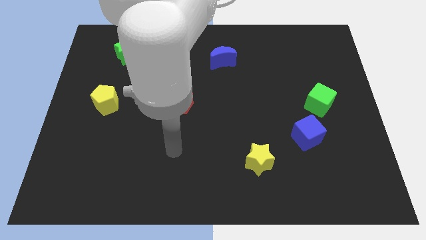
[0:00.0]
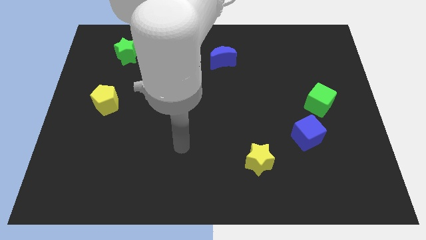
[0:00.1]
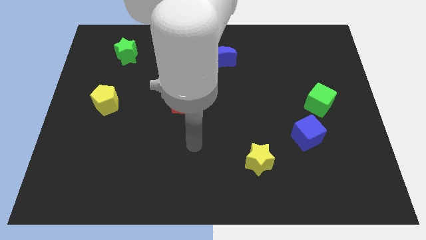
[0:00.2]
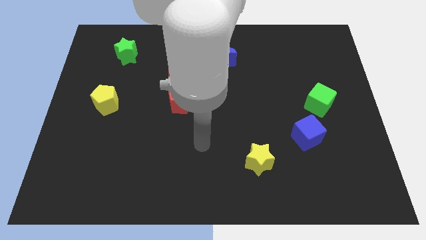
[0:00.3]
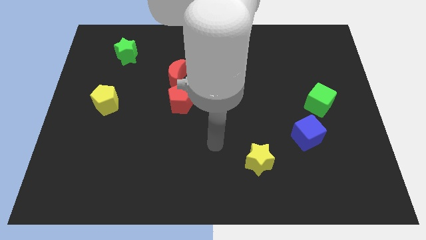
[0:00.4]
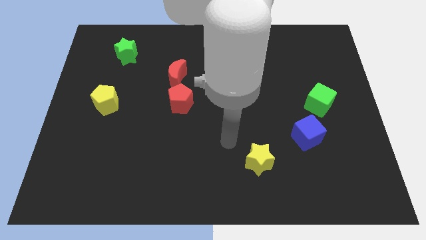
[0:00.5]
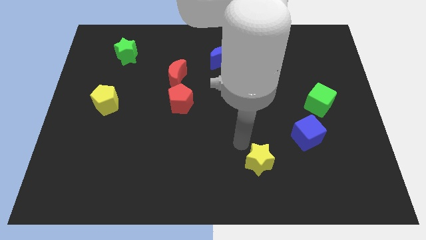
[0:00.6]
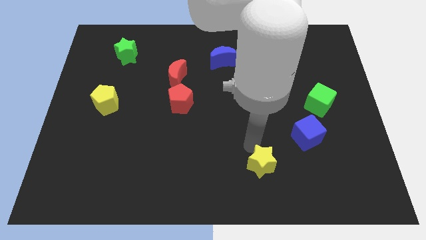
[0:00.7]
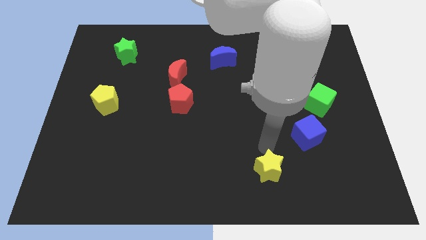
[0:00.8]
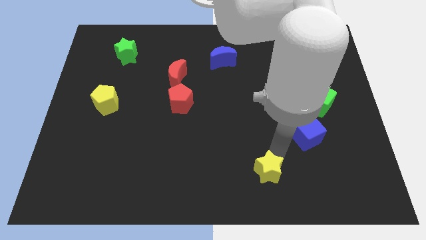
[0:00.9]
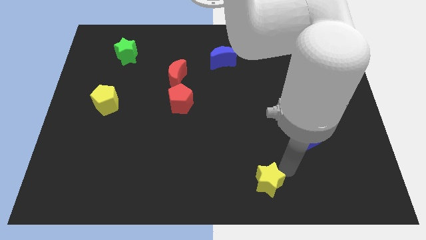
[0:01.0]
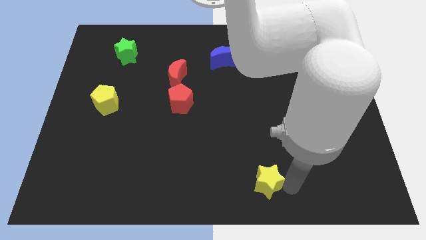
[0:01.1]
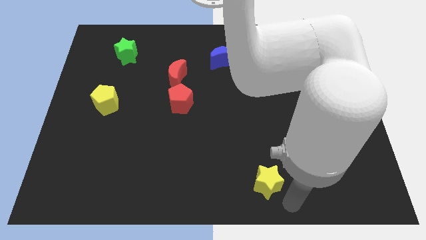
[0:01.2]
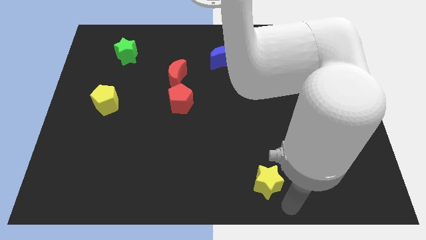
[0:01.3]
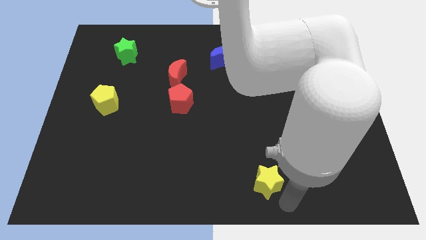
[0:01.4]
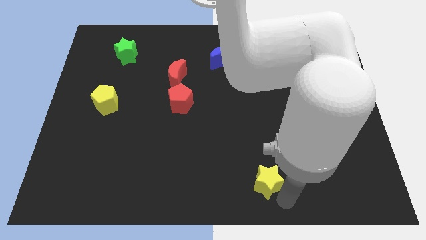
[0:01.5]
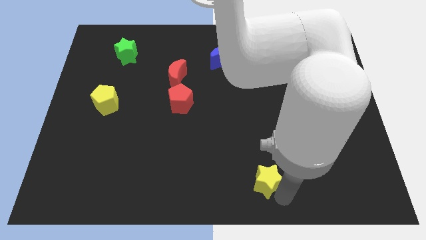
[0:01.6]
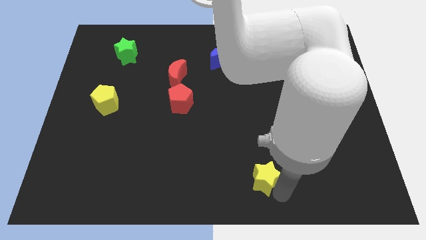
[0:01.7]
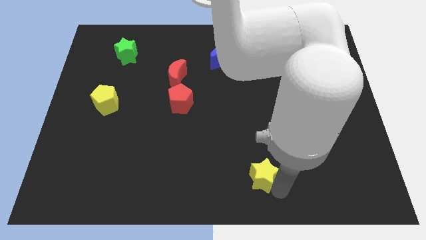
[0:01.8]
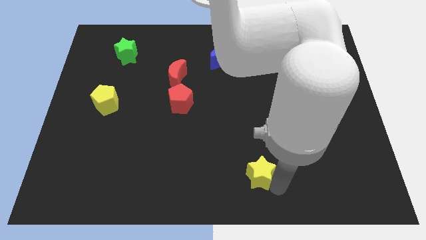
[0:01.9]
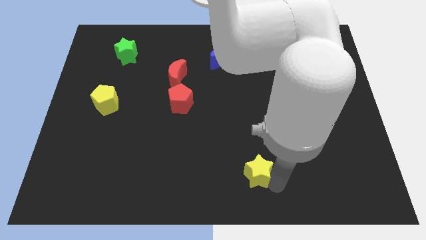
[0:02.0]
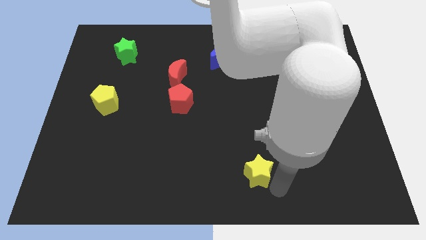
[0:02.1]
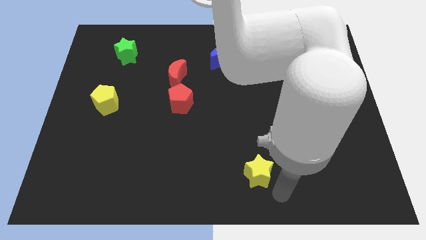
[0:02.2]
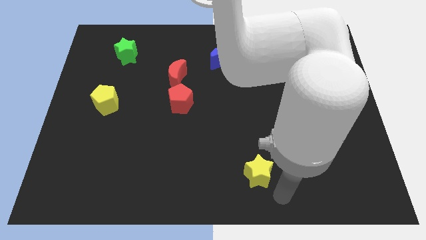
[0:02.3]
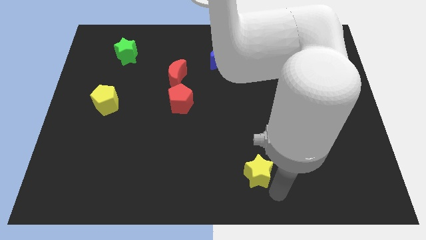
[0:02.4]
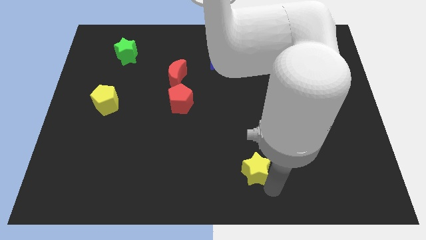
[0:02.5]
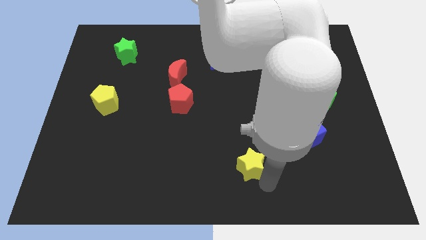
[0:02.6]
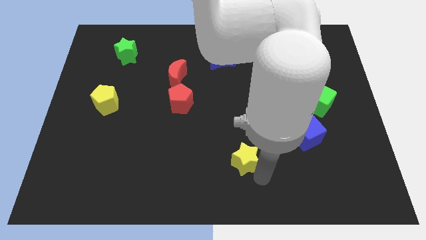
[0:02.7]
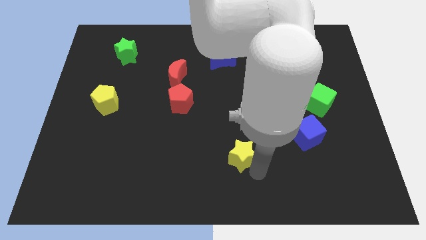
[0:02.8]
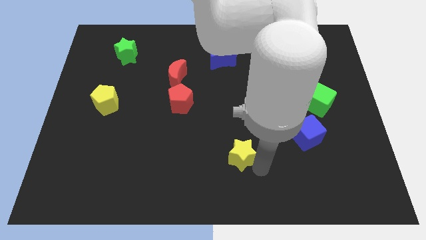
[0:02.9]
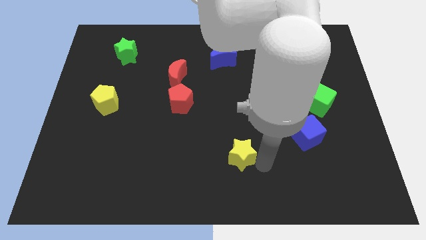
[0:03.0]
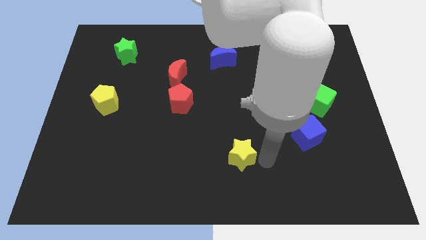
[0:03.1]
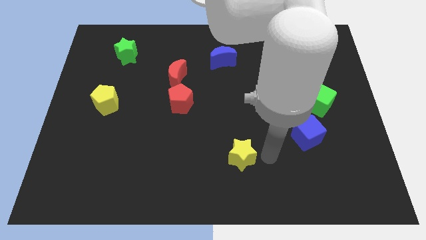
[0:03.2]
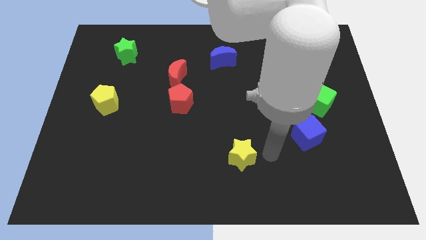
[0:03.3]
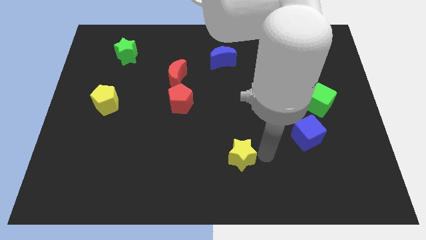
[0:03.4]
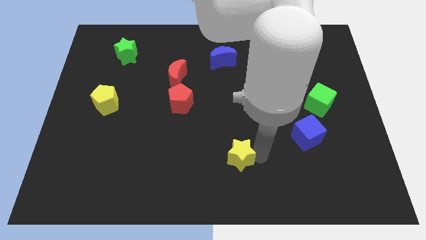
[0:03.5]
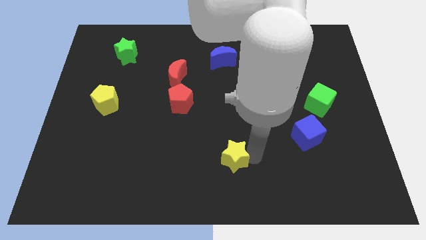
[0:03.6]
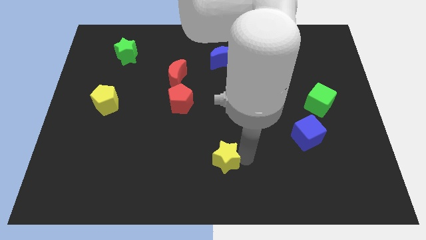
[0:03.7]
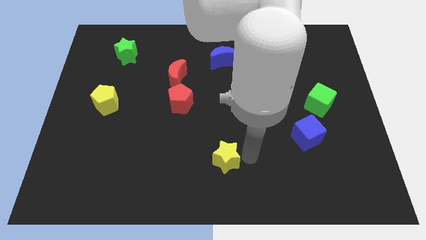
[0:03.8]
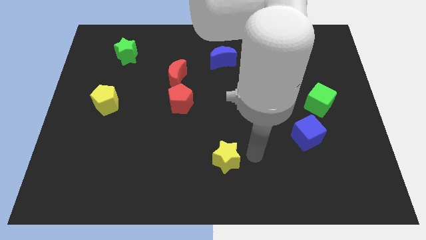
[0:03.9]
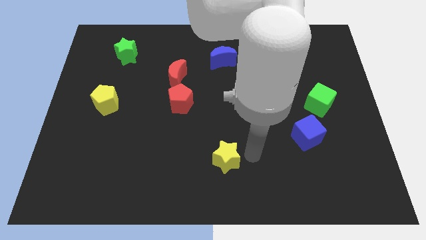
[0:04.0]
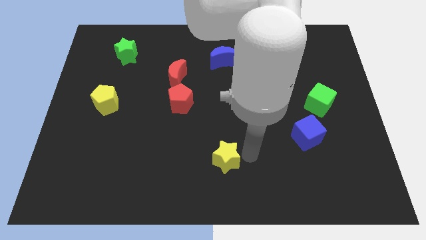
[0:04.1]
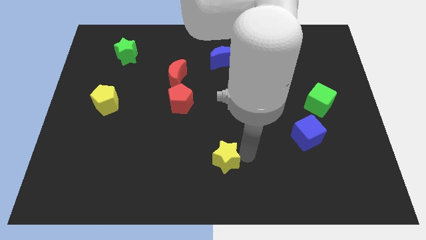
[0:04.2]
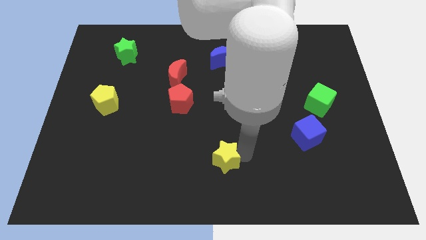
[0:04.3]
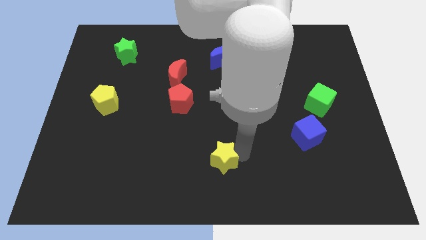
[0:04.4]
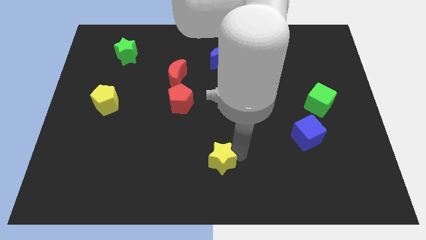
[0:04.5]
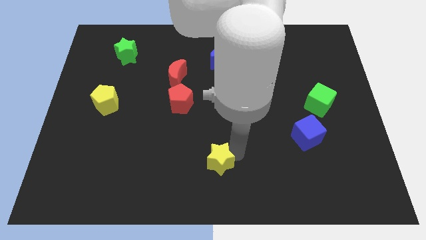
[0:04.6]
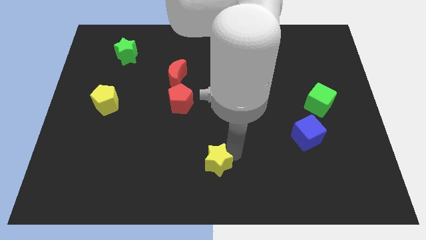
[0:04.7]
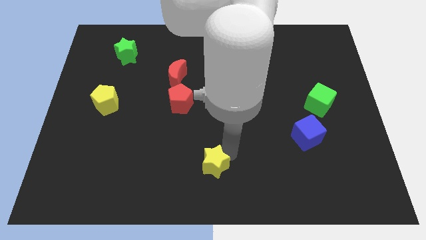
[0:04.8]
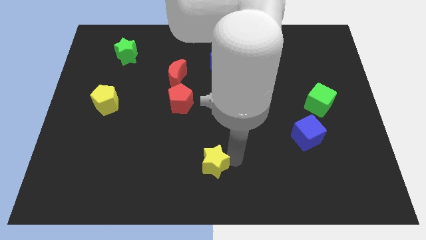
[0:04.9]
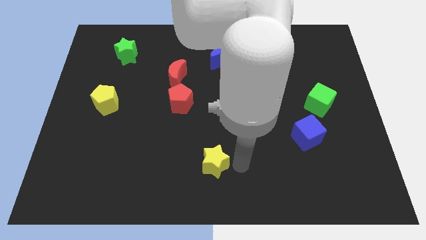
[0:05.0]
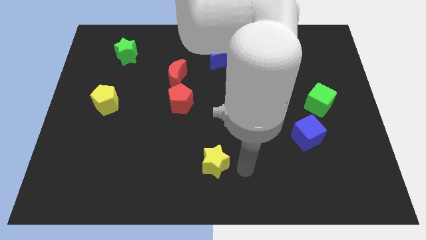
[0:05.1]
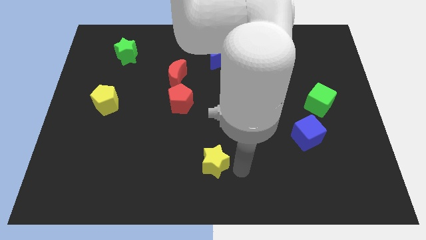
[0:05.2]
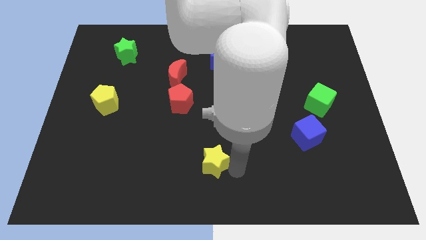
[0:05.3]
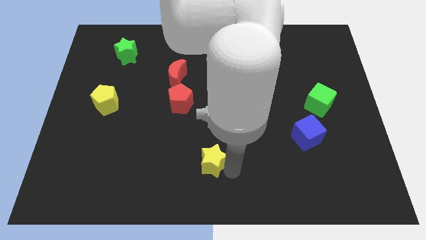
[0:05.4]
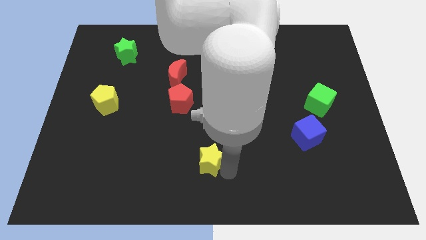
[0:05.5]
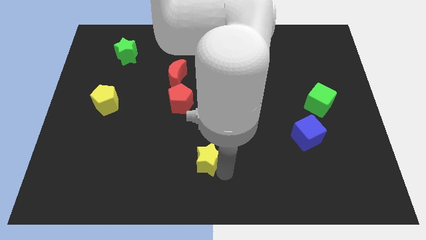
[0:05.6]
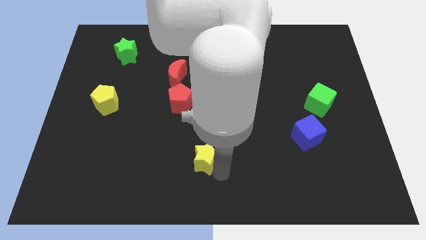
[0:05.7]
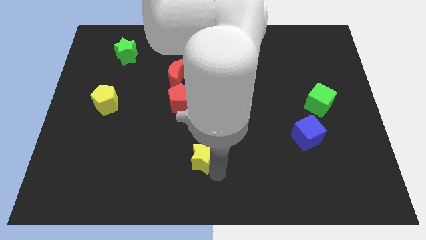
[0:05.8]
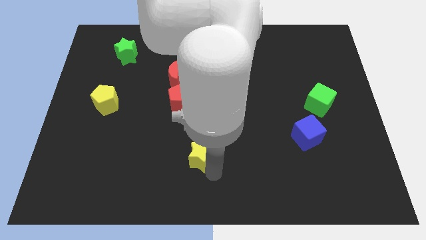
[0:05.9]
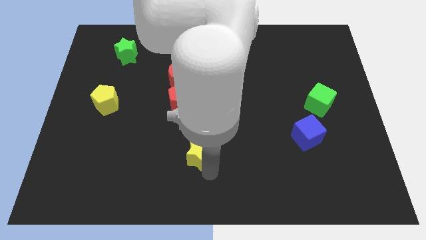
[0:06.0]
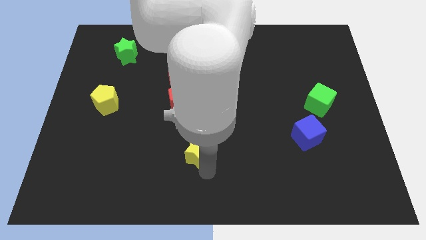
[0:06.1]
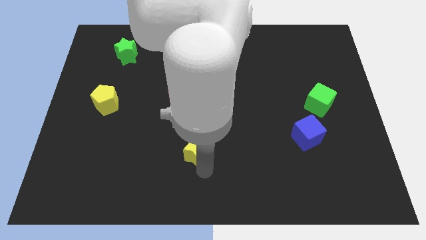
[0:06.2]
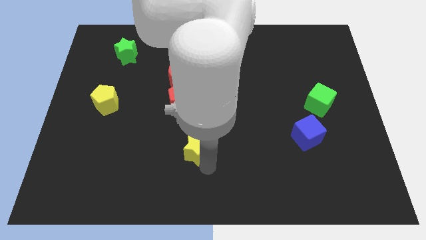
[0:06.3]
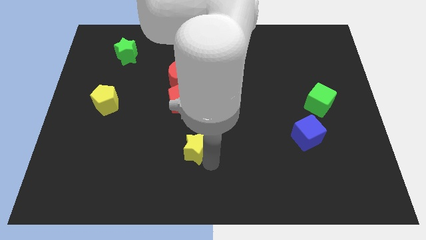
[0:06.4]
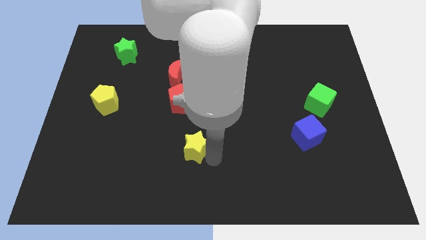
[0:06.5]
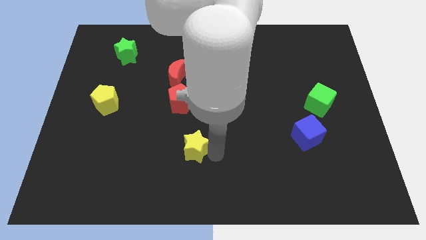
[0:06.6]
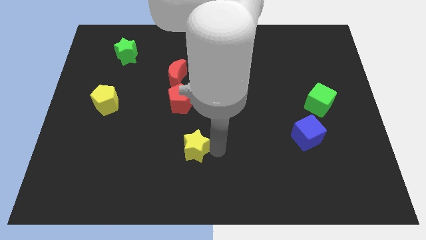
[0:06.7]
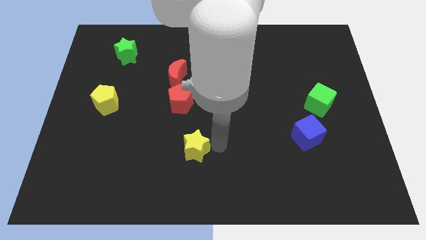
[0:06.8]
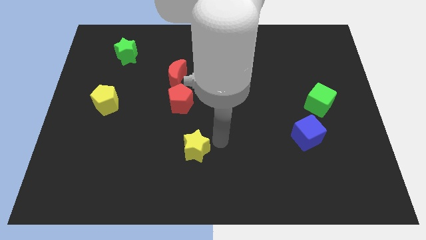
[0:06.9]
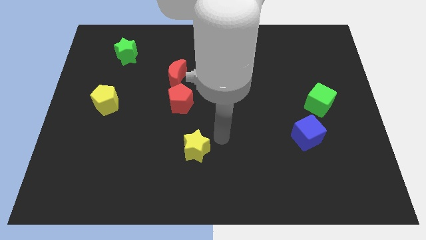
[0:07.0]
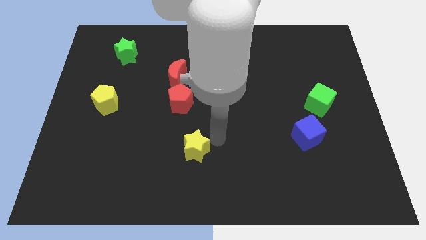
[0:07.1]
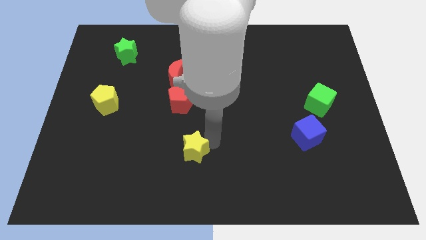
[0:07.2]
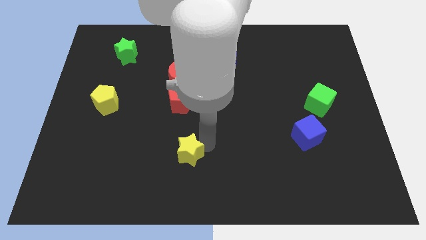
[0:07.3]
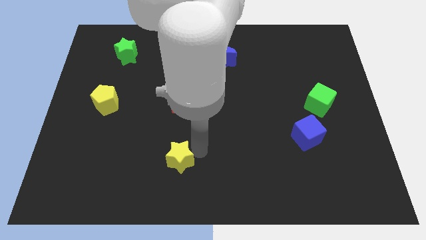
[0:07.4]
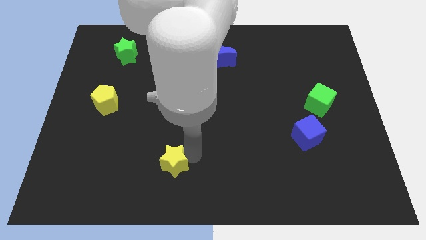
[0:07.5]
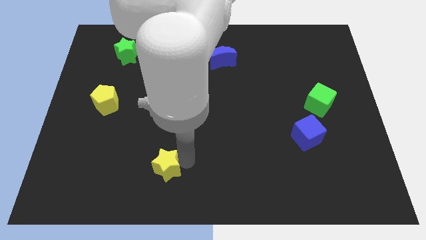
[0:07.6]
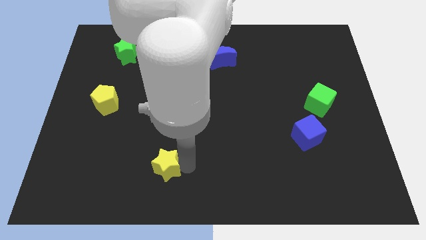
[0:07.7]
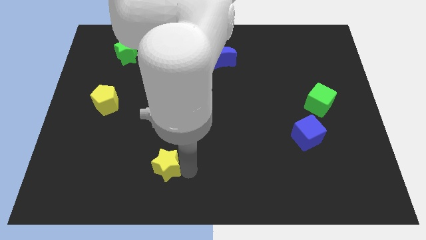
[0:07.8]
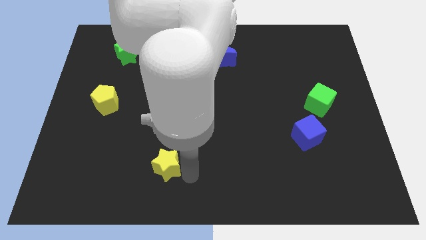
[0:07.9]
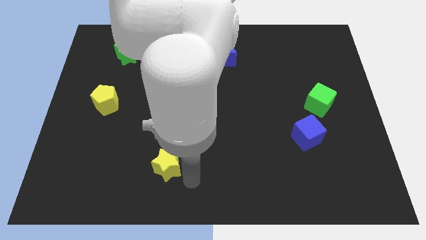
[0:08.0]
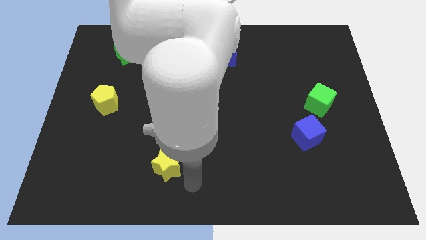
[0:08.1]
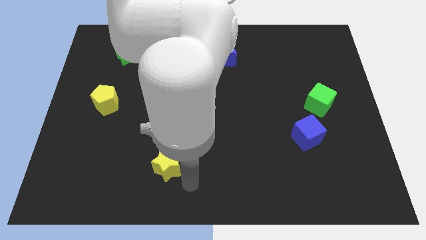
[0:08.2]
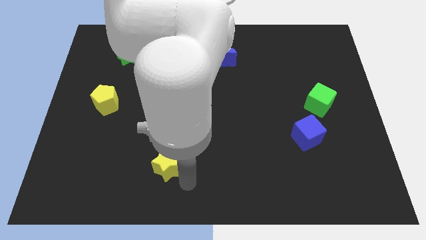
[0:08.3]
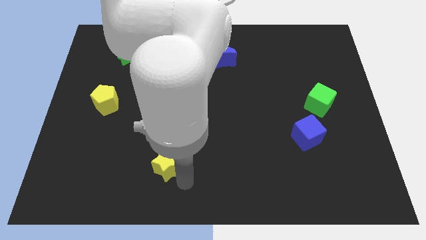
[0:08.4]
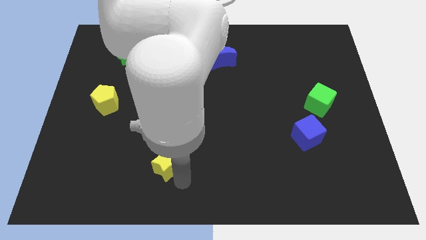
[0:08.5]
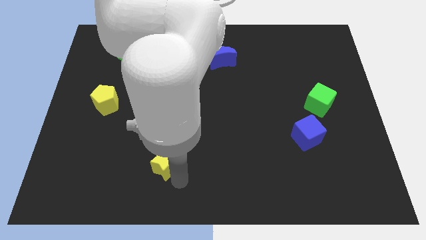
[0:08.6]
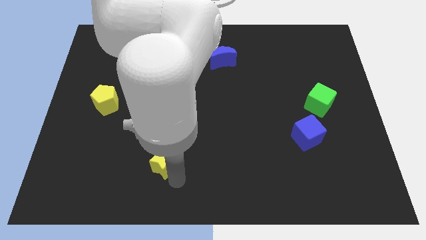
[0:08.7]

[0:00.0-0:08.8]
slide the yellow star to the left
